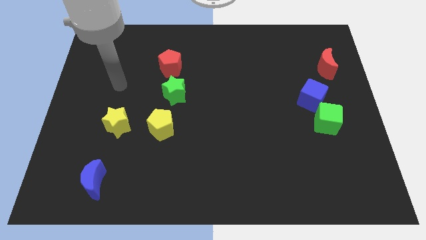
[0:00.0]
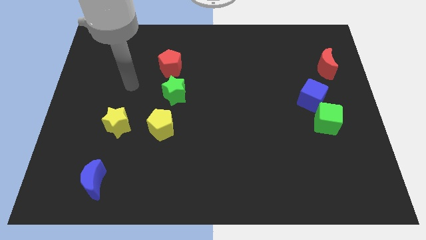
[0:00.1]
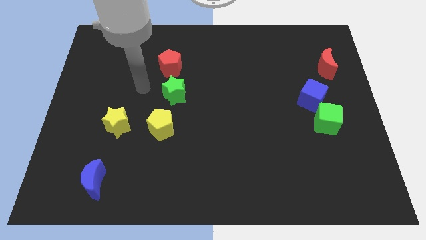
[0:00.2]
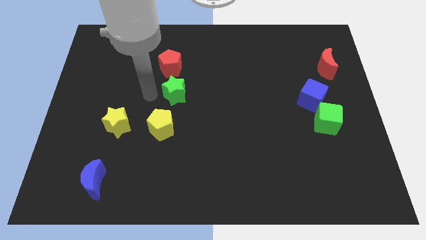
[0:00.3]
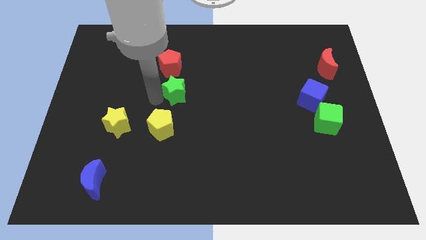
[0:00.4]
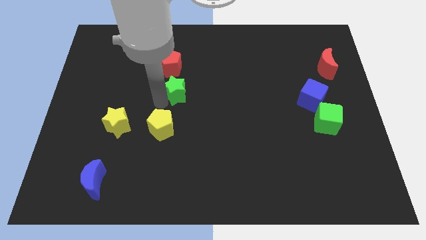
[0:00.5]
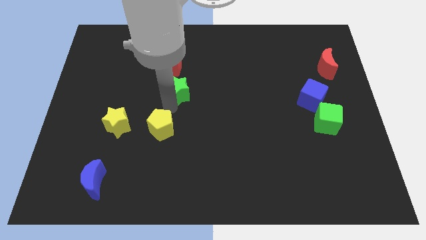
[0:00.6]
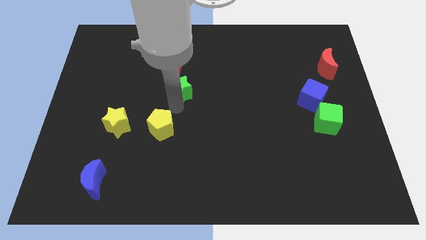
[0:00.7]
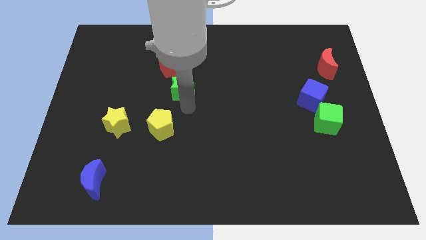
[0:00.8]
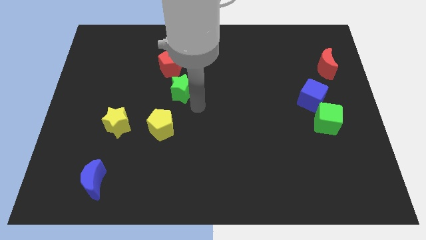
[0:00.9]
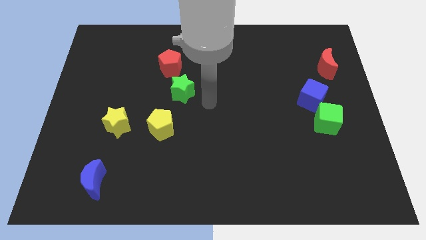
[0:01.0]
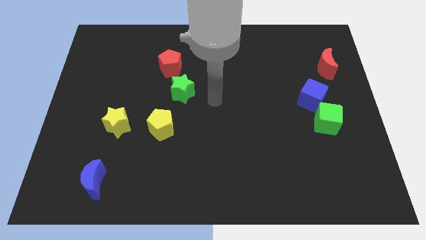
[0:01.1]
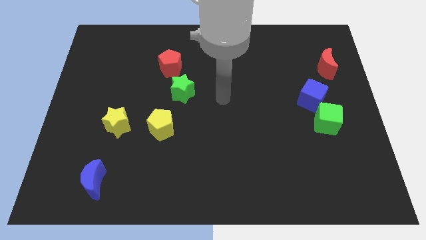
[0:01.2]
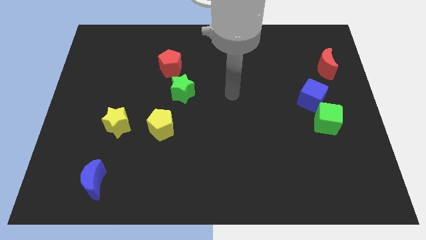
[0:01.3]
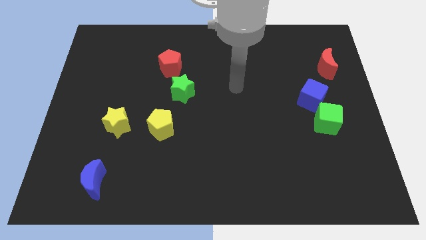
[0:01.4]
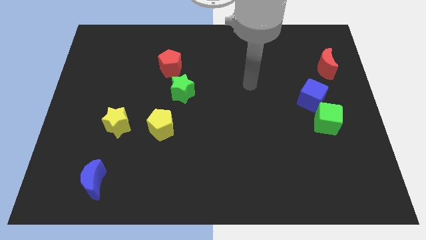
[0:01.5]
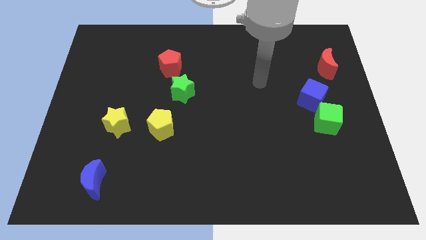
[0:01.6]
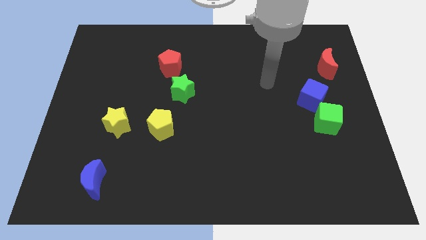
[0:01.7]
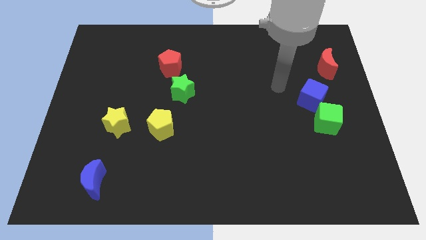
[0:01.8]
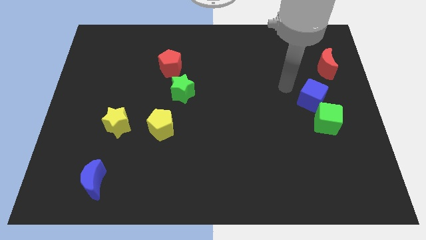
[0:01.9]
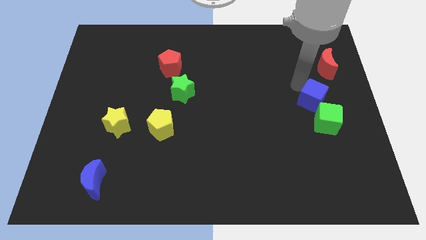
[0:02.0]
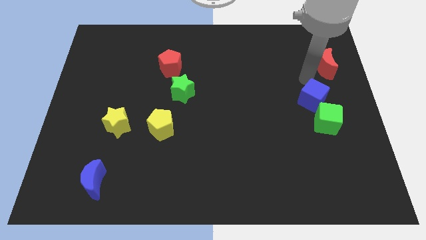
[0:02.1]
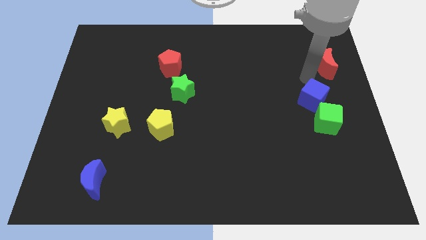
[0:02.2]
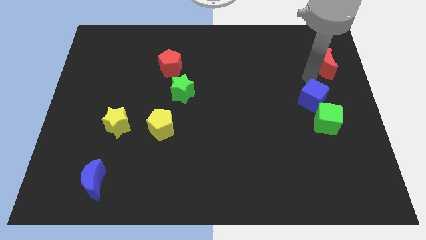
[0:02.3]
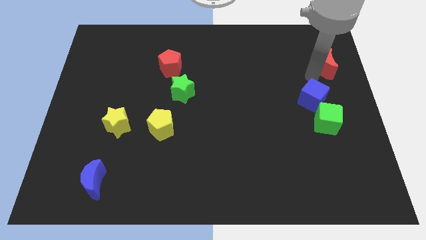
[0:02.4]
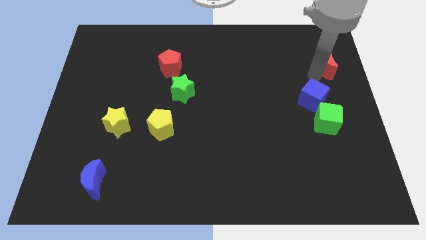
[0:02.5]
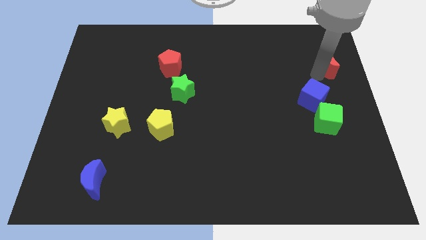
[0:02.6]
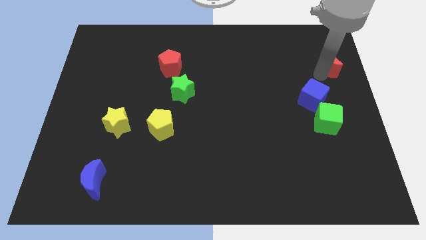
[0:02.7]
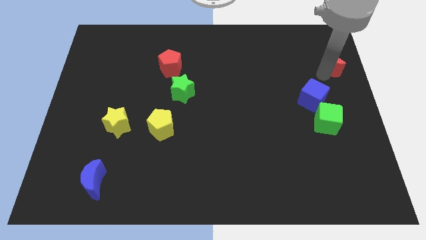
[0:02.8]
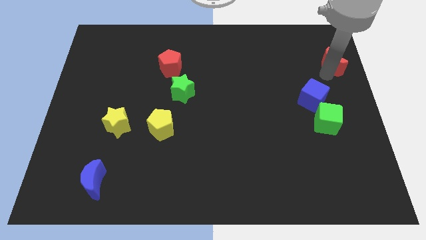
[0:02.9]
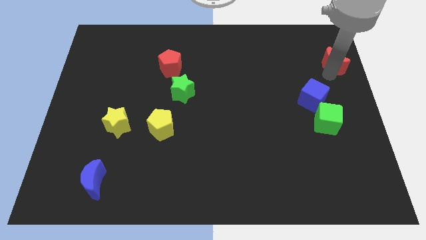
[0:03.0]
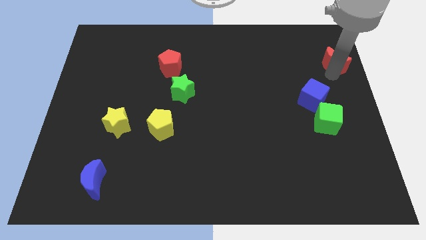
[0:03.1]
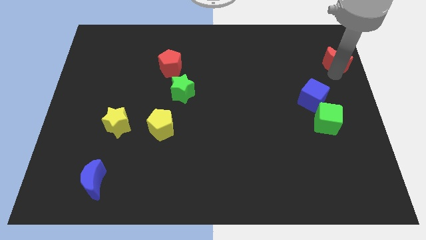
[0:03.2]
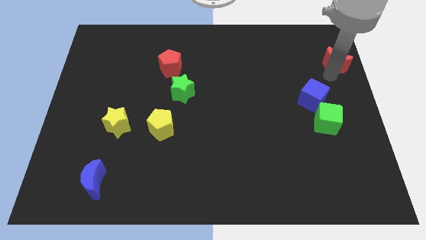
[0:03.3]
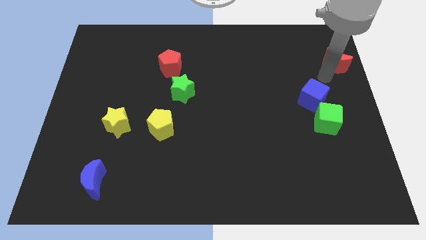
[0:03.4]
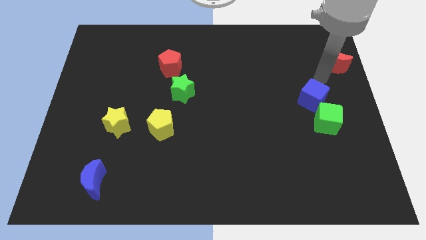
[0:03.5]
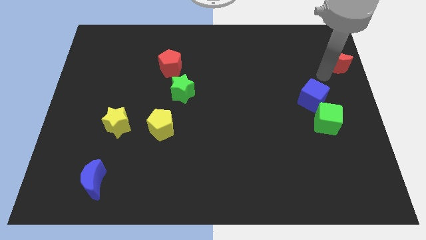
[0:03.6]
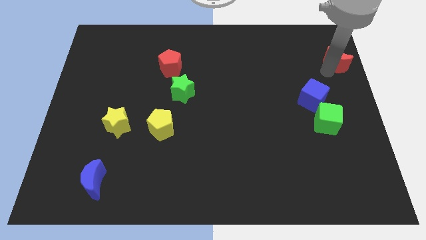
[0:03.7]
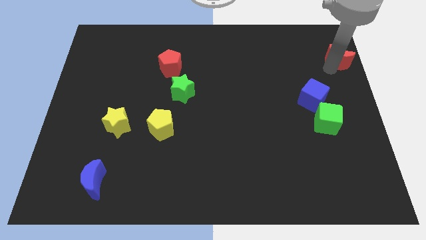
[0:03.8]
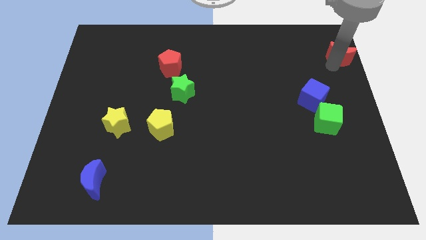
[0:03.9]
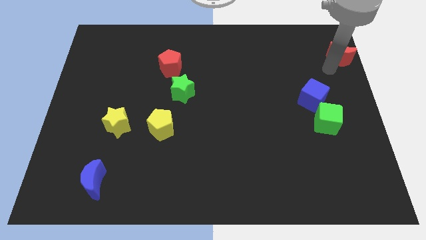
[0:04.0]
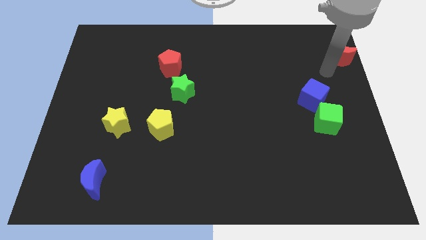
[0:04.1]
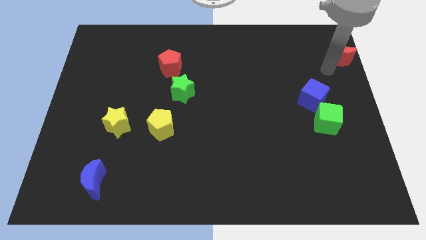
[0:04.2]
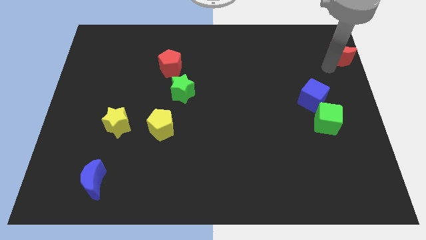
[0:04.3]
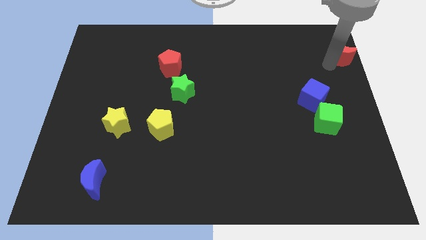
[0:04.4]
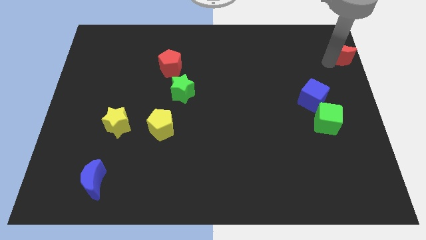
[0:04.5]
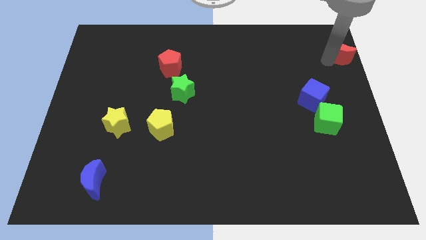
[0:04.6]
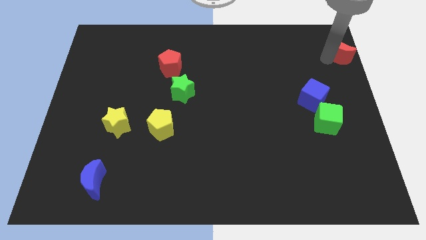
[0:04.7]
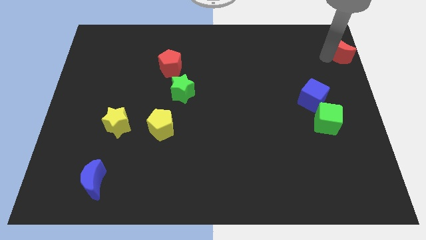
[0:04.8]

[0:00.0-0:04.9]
push the red moon to the upper right corner

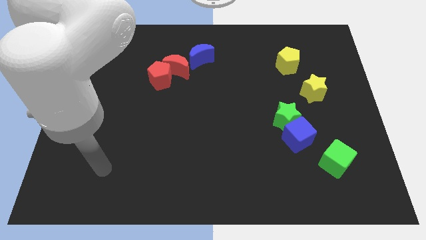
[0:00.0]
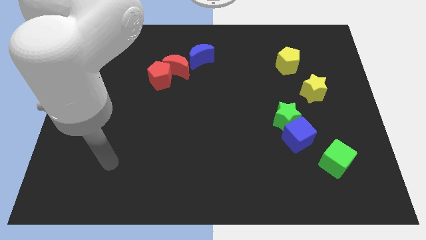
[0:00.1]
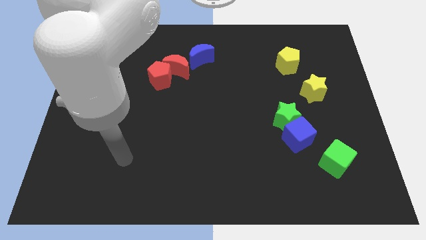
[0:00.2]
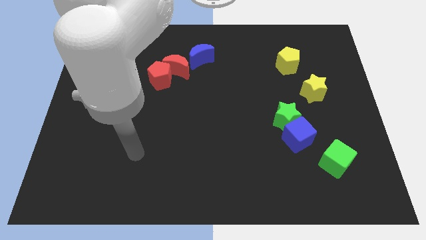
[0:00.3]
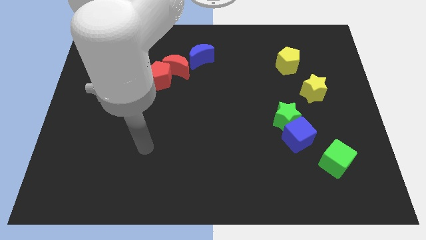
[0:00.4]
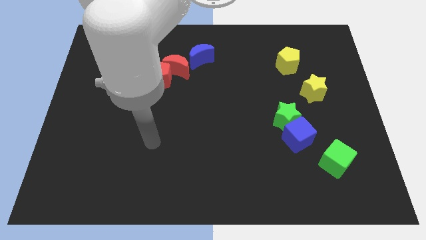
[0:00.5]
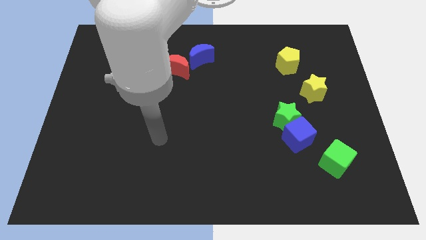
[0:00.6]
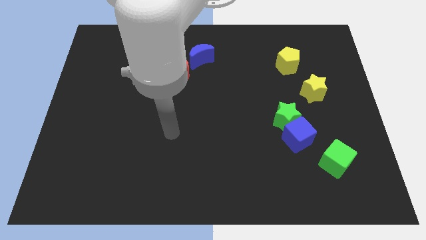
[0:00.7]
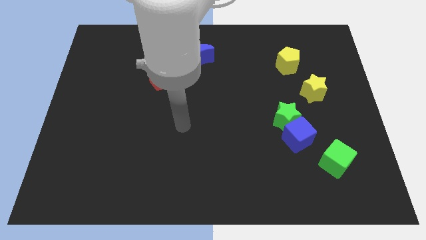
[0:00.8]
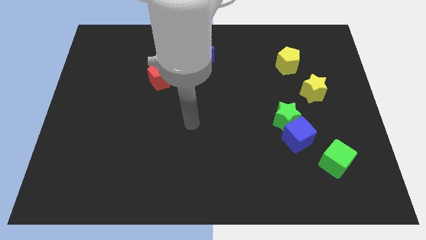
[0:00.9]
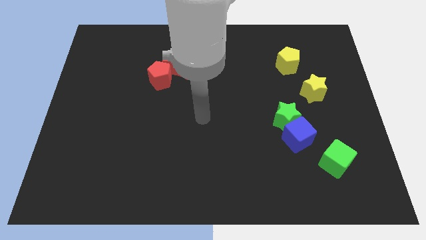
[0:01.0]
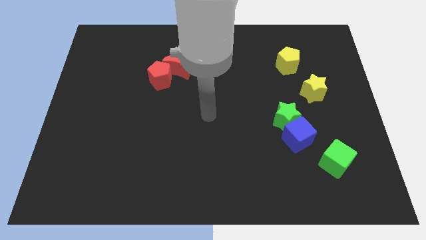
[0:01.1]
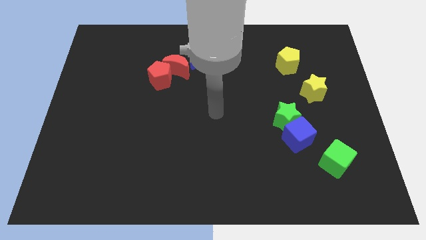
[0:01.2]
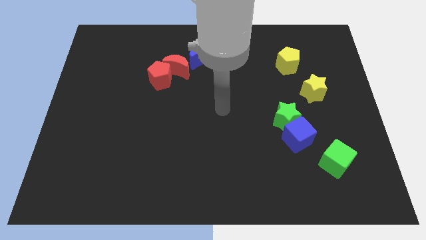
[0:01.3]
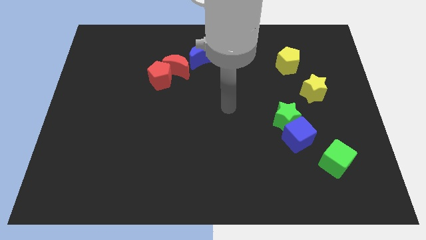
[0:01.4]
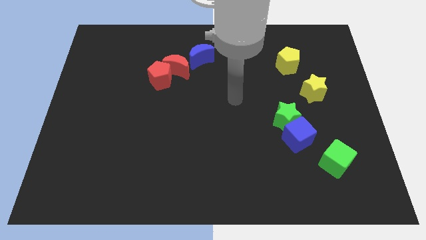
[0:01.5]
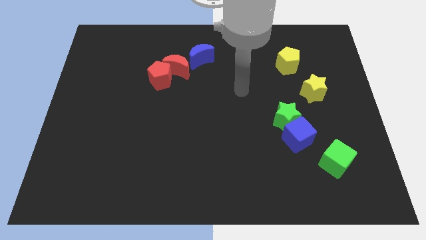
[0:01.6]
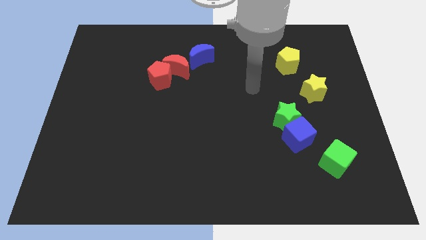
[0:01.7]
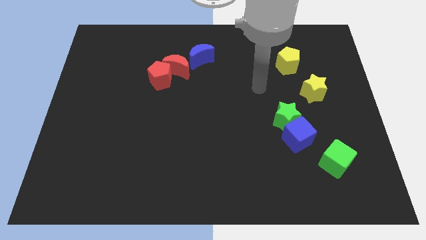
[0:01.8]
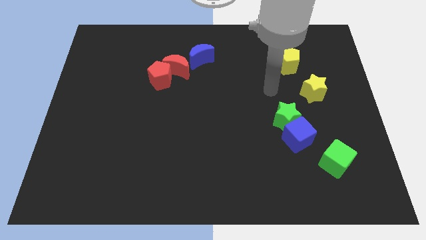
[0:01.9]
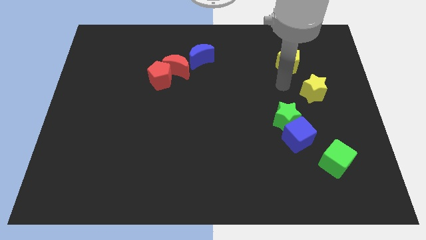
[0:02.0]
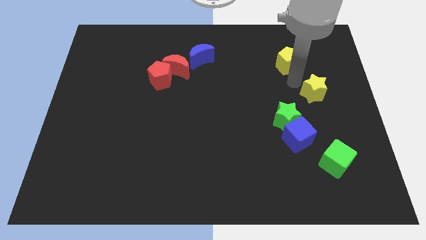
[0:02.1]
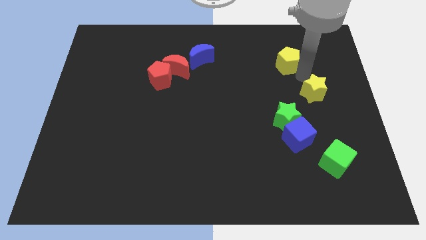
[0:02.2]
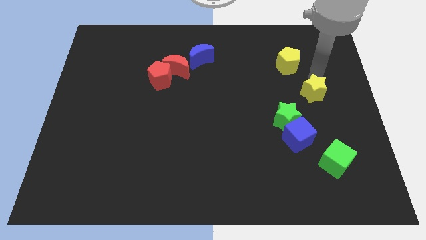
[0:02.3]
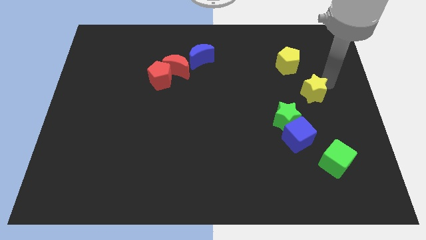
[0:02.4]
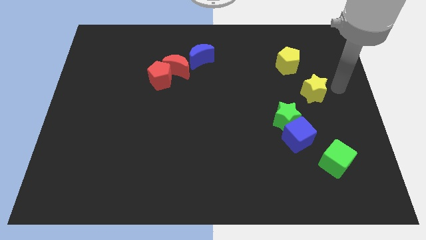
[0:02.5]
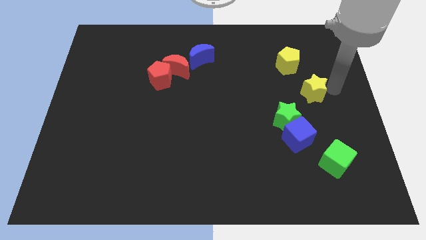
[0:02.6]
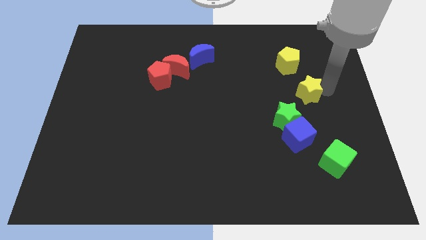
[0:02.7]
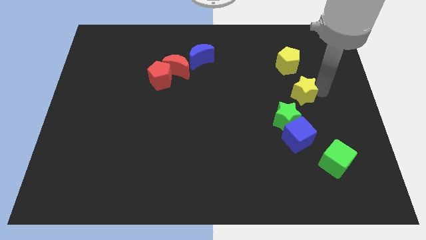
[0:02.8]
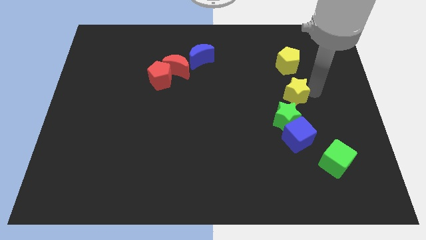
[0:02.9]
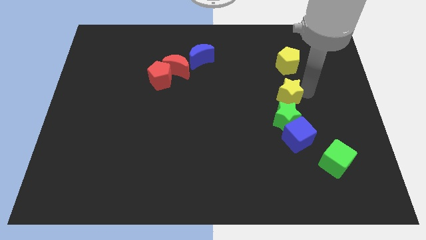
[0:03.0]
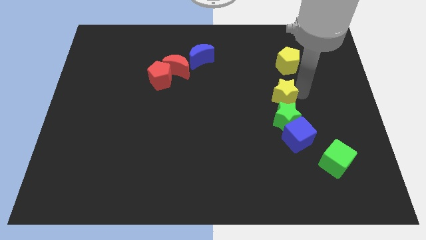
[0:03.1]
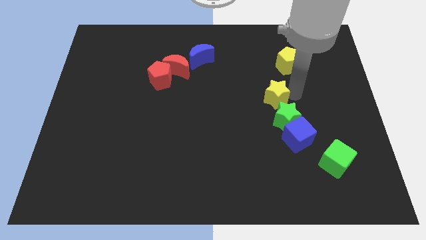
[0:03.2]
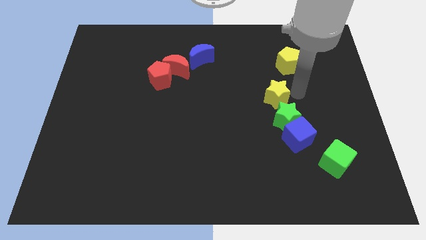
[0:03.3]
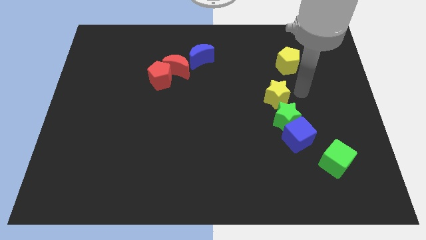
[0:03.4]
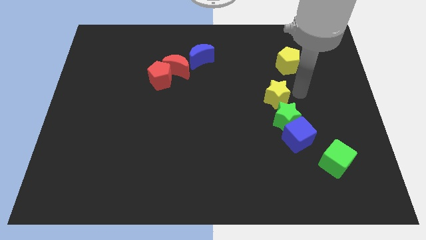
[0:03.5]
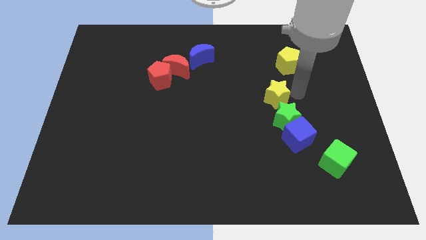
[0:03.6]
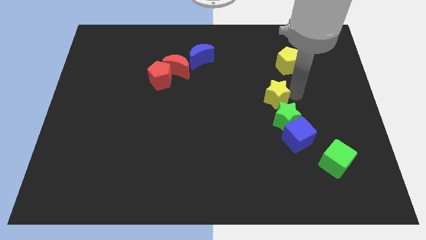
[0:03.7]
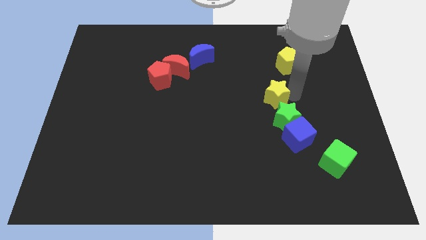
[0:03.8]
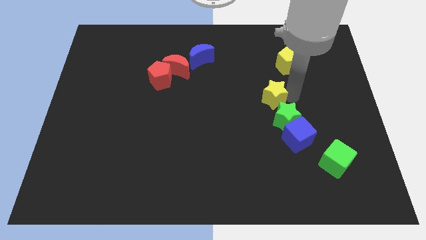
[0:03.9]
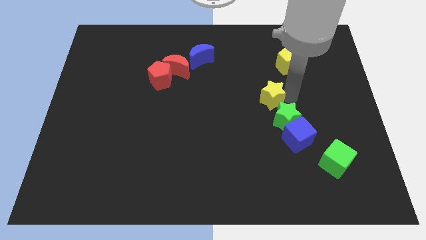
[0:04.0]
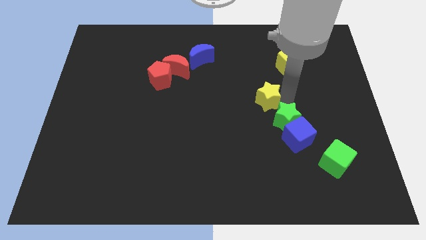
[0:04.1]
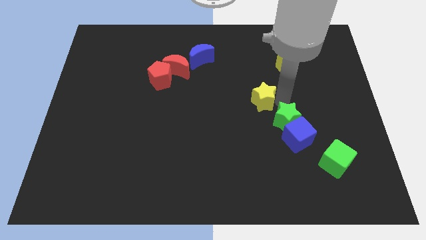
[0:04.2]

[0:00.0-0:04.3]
push the yellow star to the center
